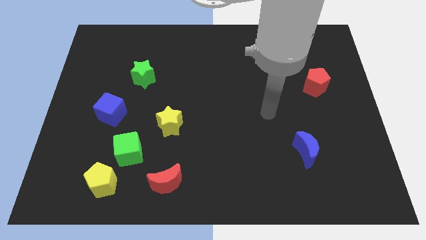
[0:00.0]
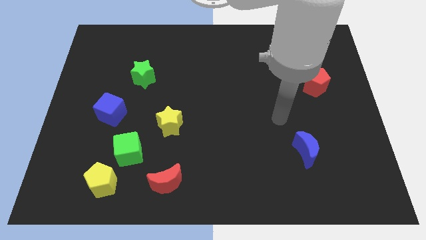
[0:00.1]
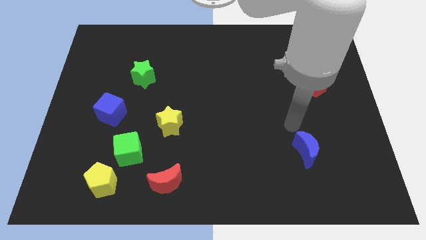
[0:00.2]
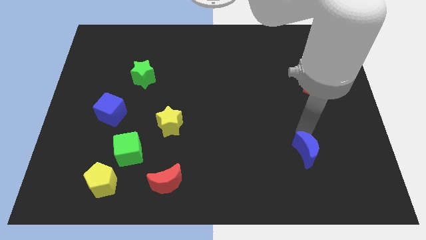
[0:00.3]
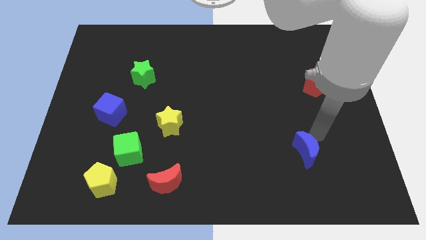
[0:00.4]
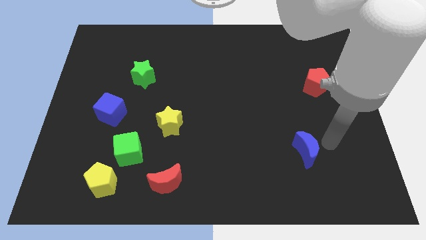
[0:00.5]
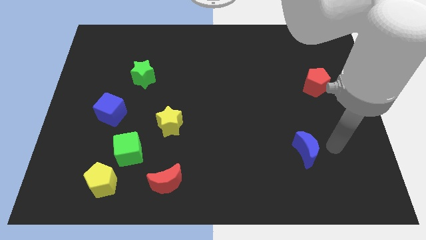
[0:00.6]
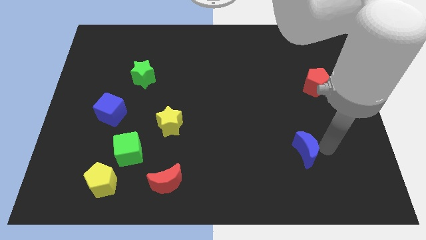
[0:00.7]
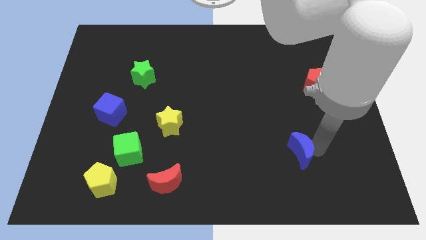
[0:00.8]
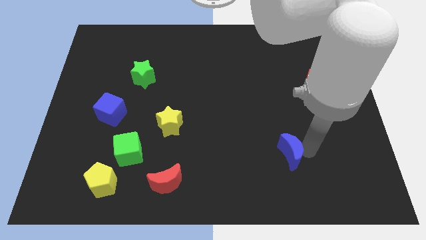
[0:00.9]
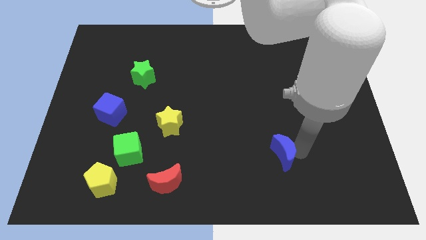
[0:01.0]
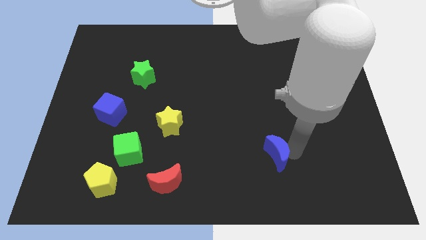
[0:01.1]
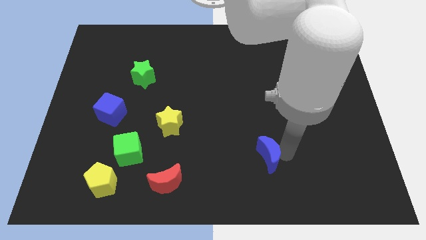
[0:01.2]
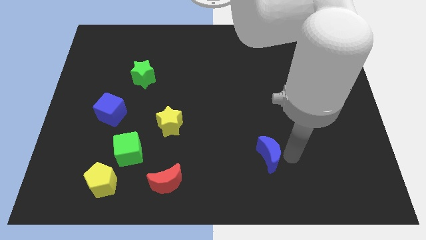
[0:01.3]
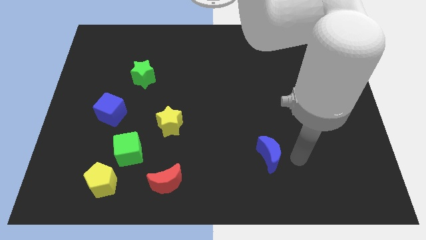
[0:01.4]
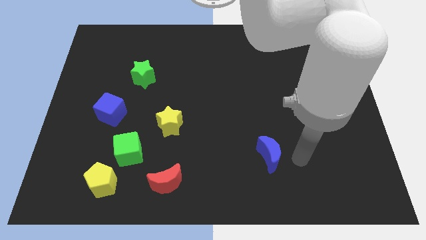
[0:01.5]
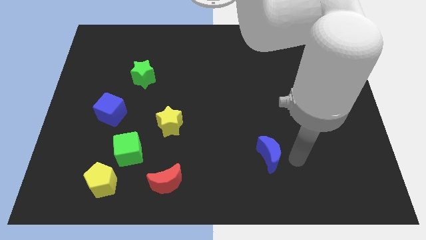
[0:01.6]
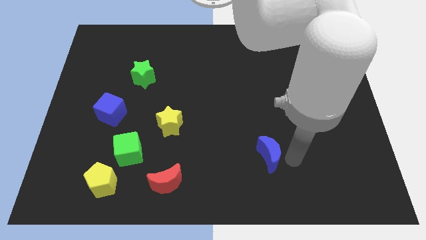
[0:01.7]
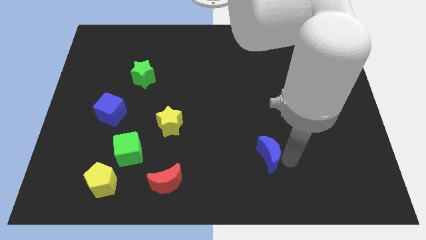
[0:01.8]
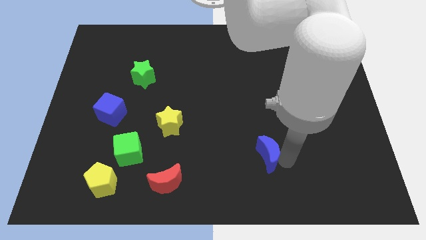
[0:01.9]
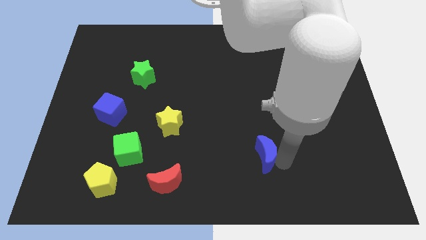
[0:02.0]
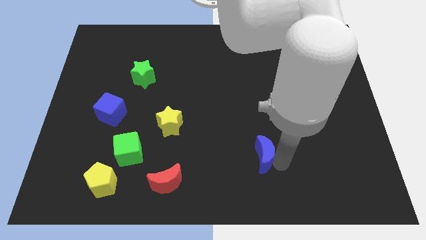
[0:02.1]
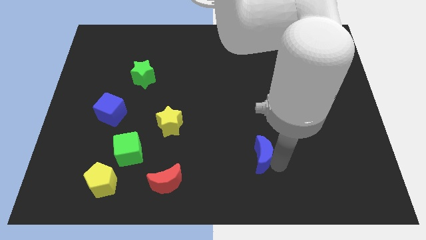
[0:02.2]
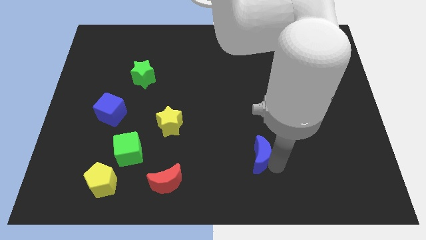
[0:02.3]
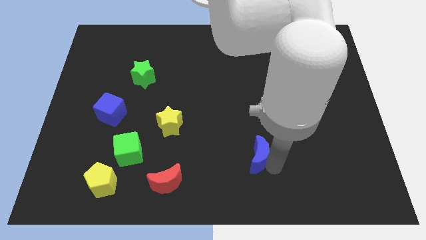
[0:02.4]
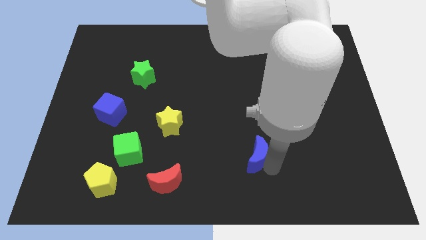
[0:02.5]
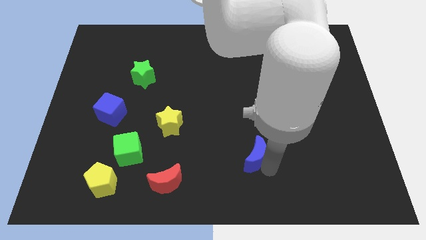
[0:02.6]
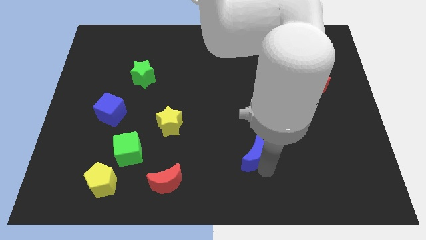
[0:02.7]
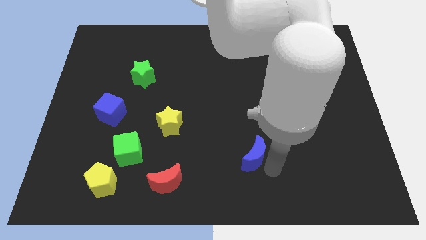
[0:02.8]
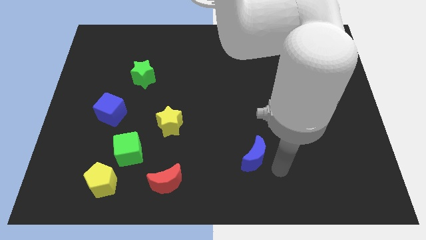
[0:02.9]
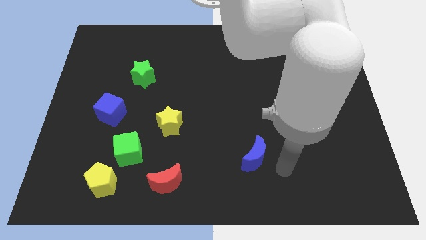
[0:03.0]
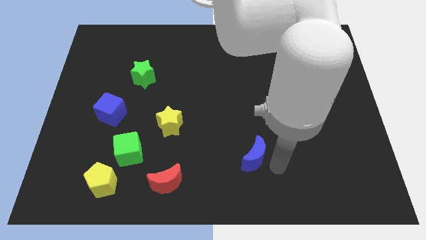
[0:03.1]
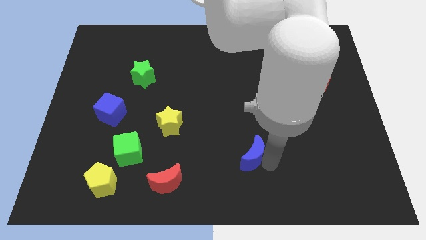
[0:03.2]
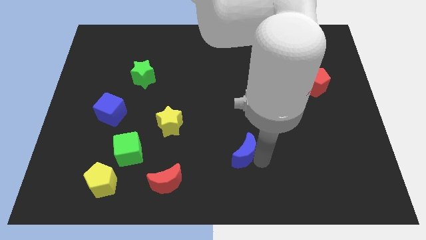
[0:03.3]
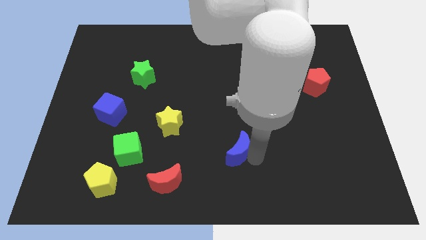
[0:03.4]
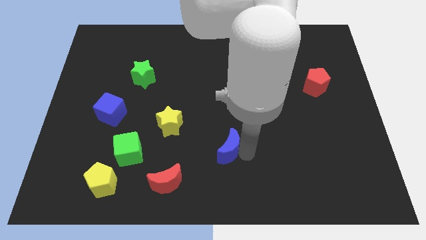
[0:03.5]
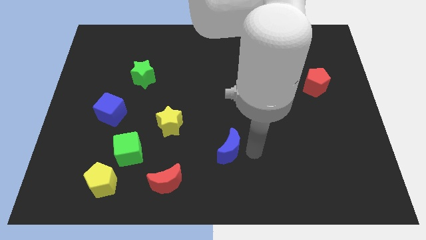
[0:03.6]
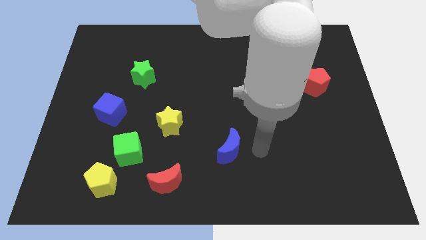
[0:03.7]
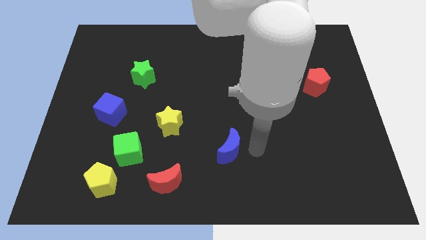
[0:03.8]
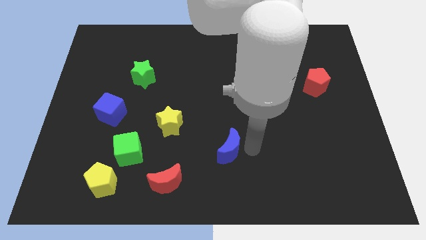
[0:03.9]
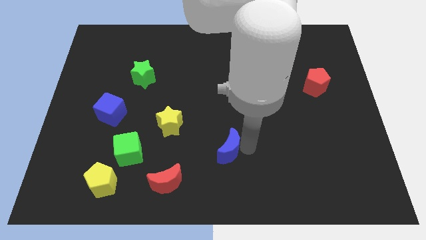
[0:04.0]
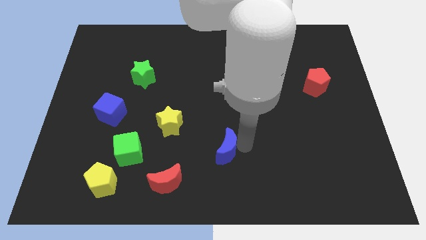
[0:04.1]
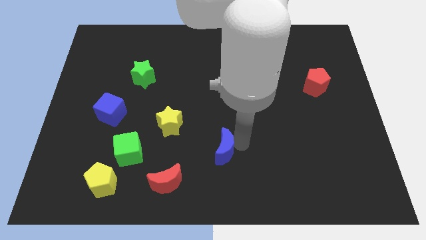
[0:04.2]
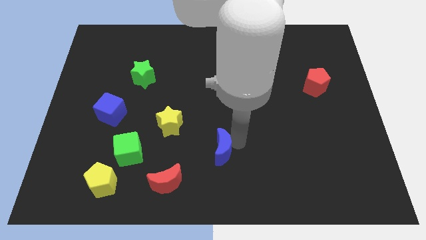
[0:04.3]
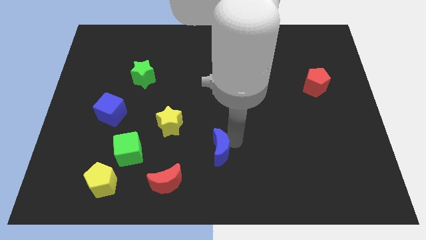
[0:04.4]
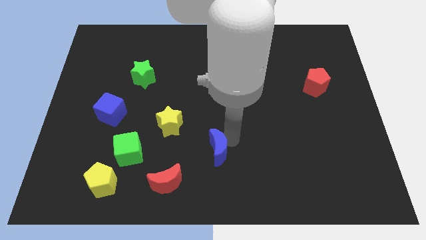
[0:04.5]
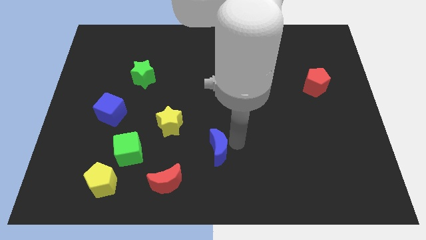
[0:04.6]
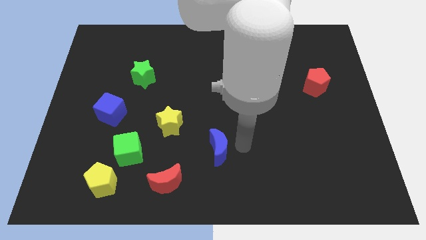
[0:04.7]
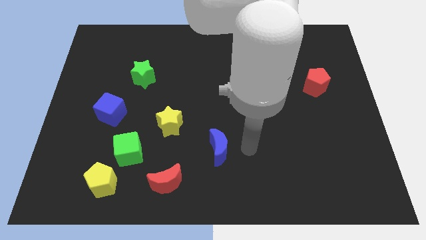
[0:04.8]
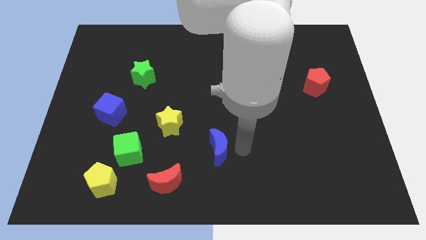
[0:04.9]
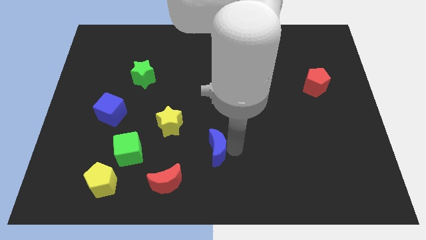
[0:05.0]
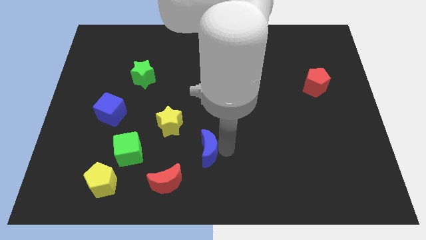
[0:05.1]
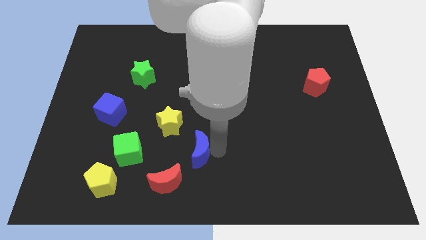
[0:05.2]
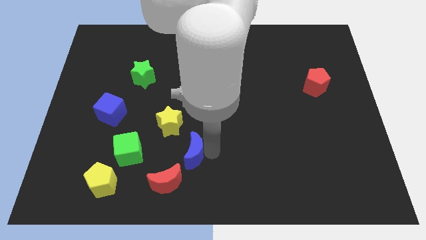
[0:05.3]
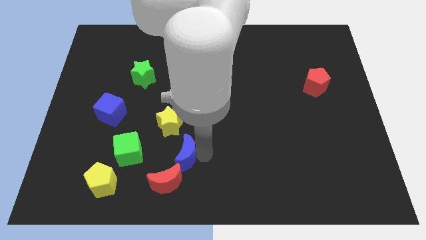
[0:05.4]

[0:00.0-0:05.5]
move the blue moon to the top of the red moon
